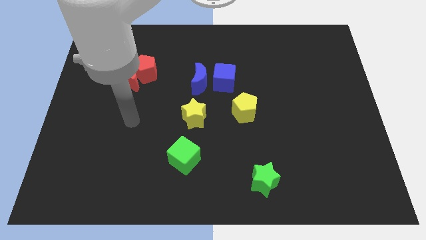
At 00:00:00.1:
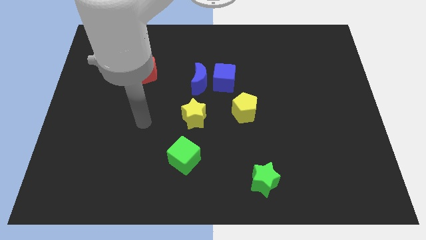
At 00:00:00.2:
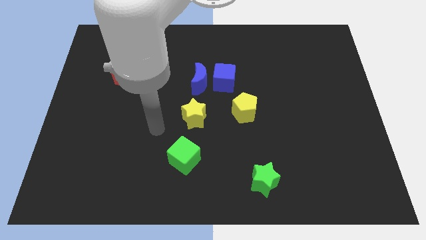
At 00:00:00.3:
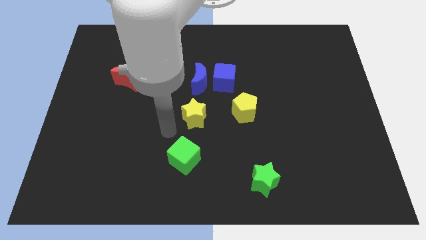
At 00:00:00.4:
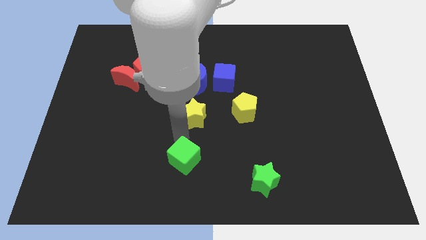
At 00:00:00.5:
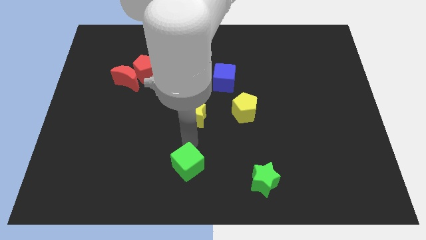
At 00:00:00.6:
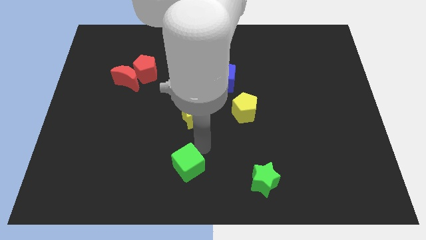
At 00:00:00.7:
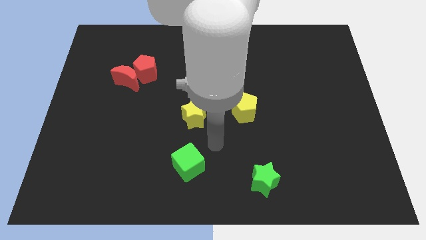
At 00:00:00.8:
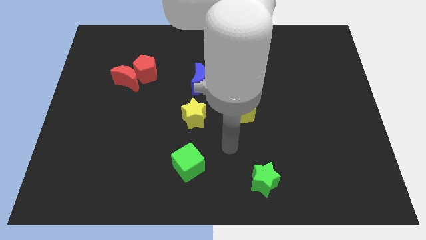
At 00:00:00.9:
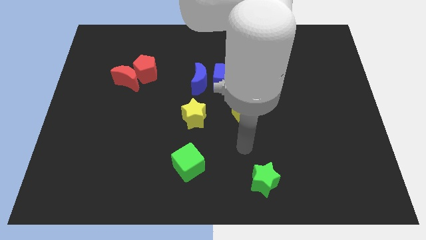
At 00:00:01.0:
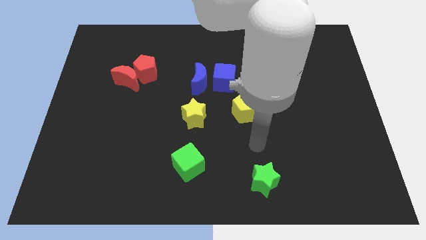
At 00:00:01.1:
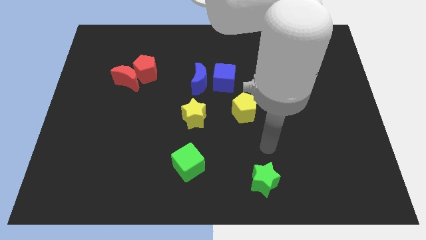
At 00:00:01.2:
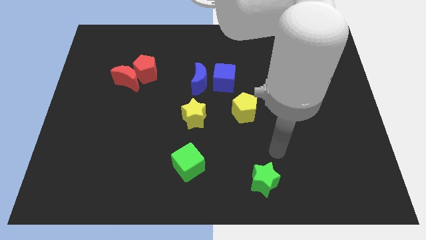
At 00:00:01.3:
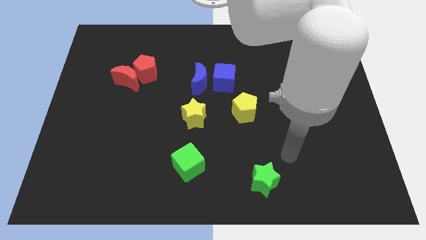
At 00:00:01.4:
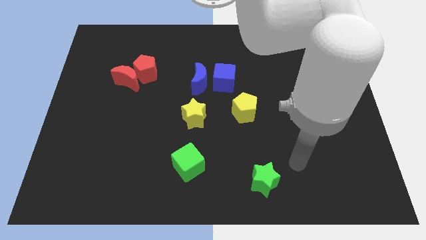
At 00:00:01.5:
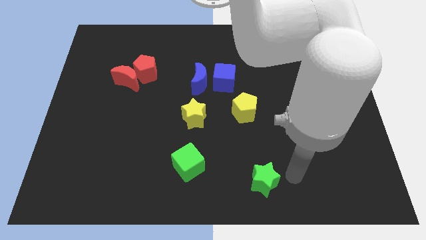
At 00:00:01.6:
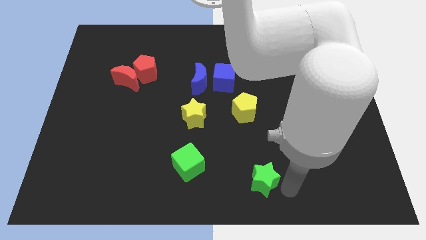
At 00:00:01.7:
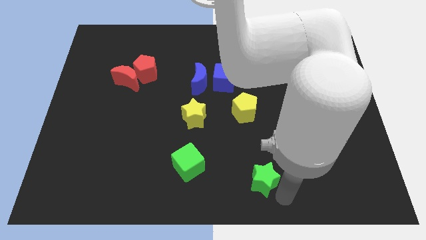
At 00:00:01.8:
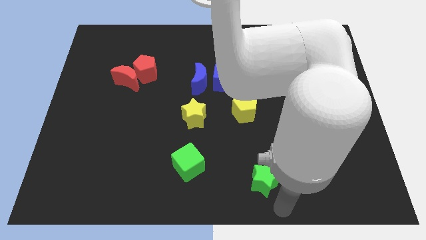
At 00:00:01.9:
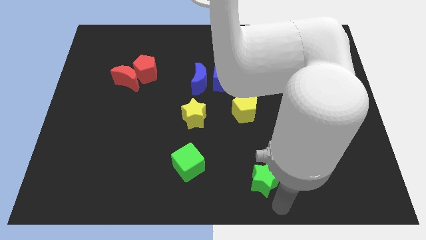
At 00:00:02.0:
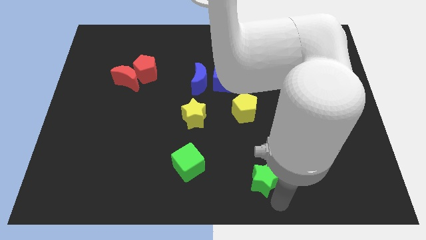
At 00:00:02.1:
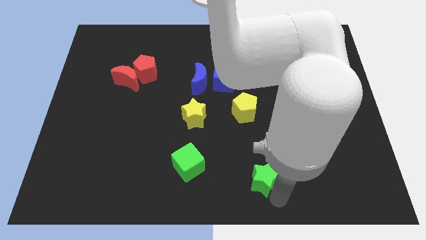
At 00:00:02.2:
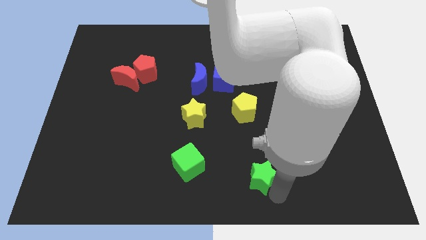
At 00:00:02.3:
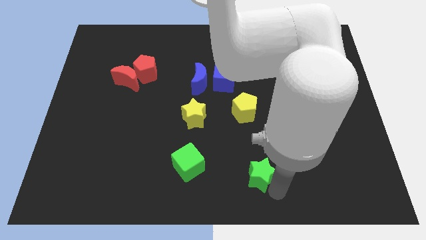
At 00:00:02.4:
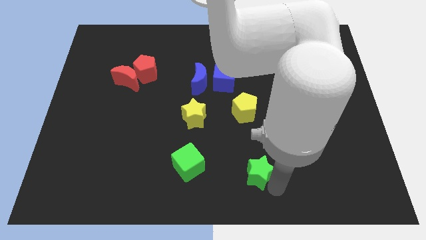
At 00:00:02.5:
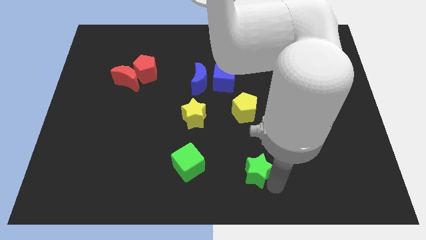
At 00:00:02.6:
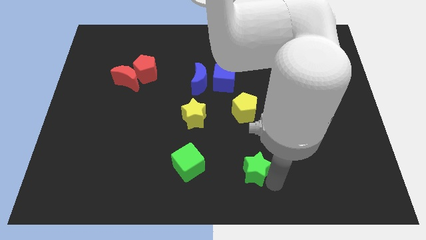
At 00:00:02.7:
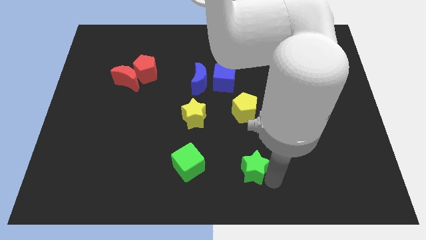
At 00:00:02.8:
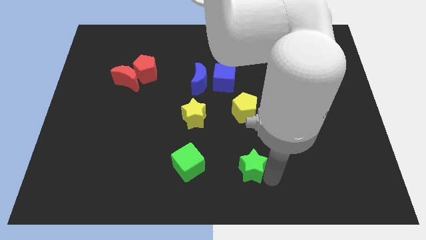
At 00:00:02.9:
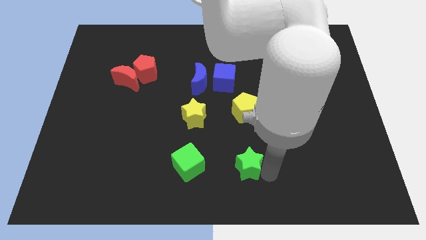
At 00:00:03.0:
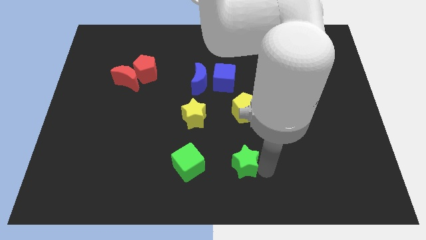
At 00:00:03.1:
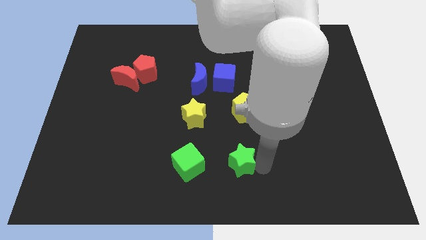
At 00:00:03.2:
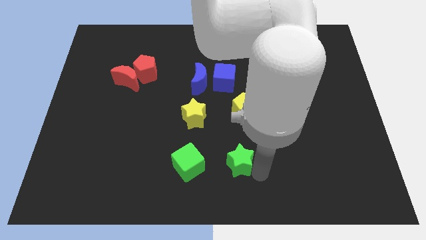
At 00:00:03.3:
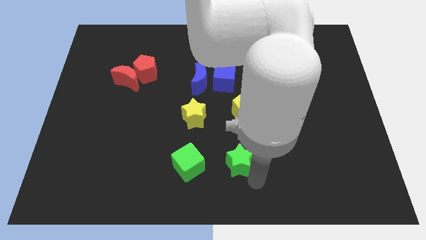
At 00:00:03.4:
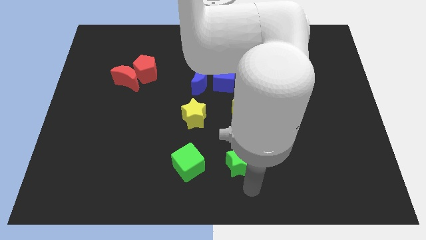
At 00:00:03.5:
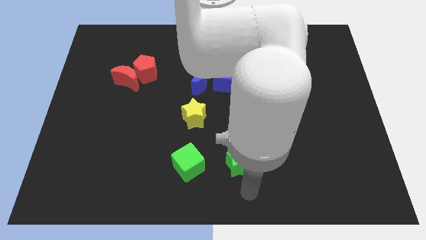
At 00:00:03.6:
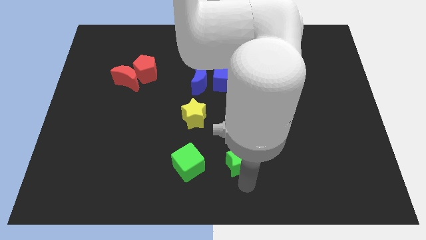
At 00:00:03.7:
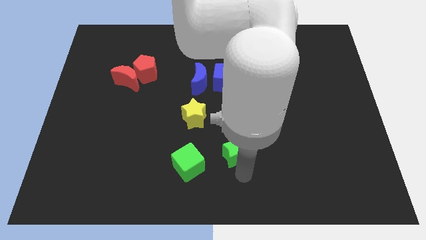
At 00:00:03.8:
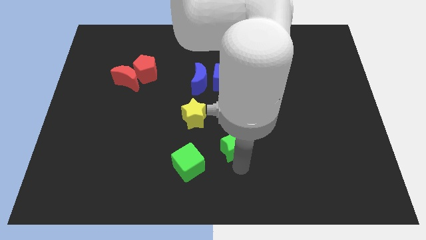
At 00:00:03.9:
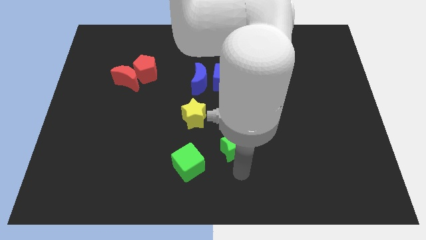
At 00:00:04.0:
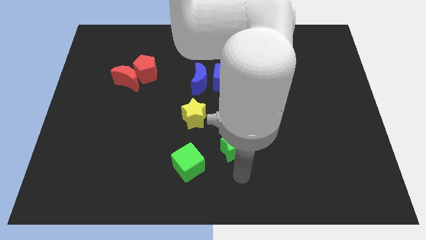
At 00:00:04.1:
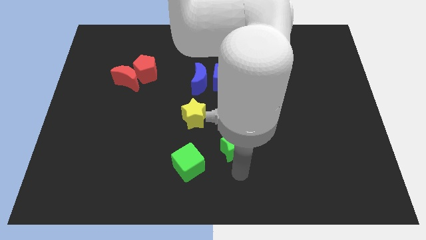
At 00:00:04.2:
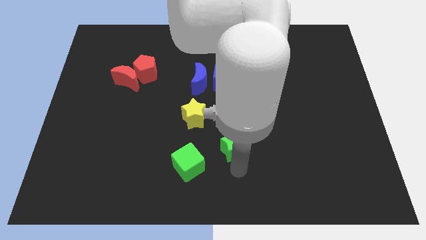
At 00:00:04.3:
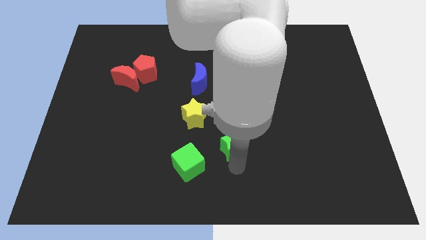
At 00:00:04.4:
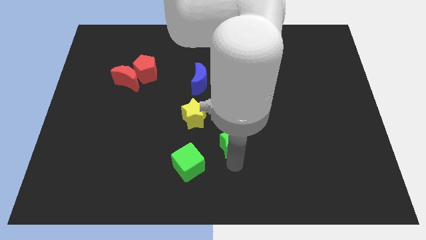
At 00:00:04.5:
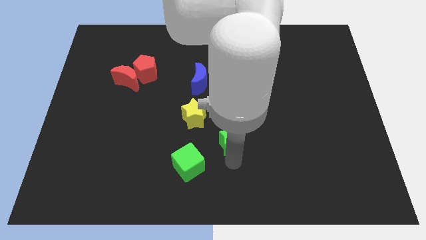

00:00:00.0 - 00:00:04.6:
move the green star to the middle of the board

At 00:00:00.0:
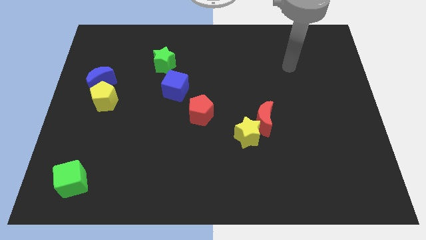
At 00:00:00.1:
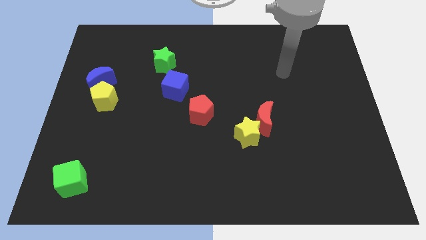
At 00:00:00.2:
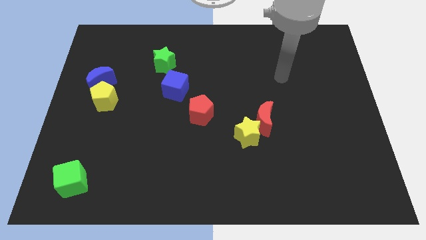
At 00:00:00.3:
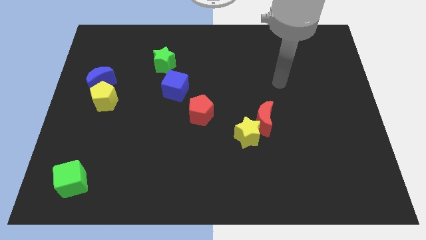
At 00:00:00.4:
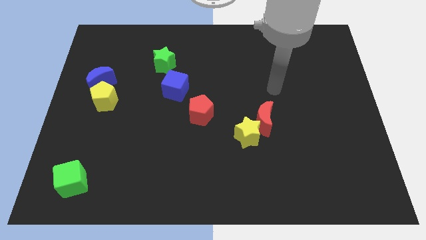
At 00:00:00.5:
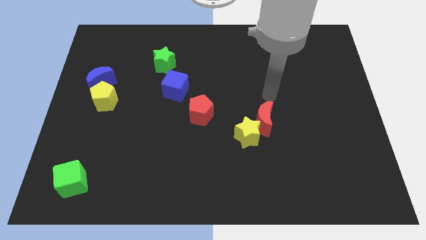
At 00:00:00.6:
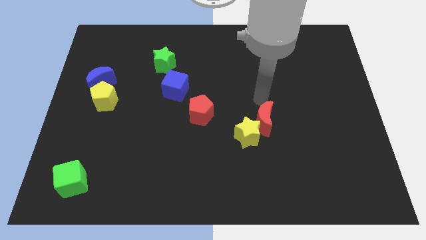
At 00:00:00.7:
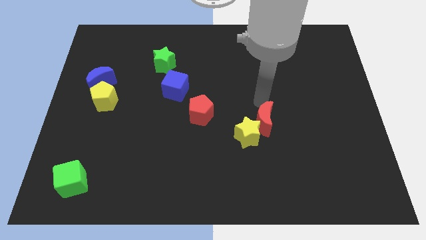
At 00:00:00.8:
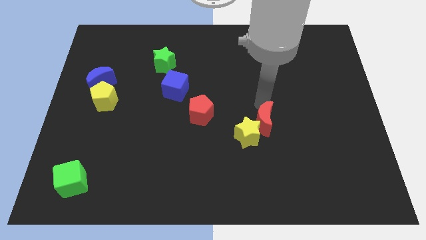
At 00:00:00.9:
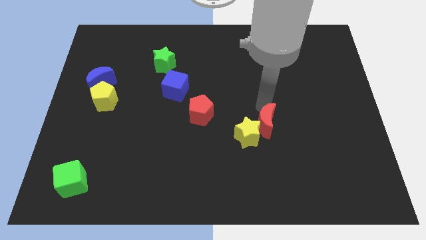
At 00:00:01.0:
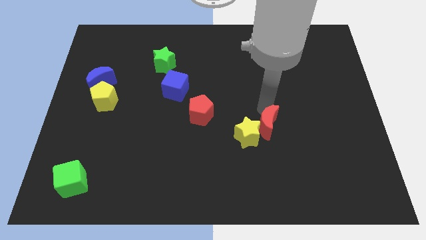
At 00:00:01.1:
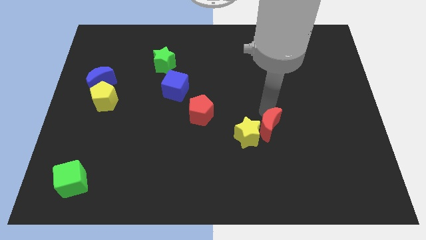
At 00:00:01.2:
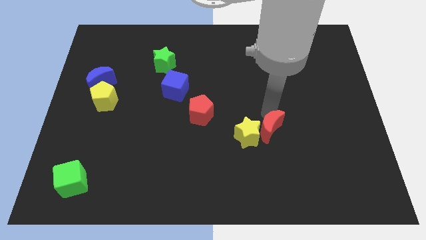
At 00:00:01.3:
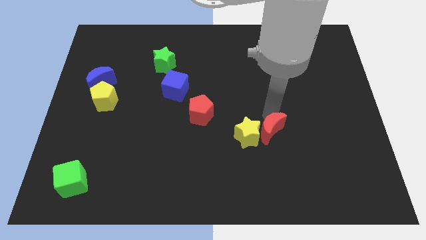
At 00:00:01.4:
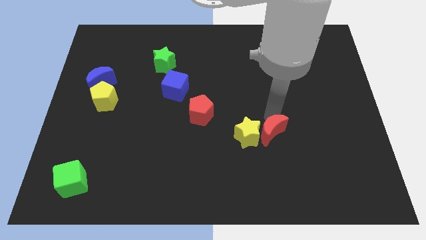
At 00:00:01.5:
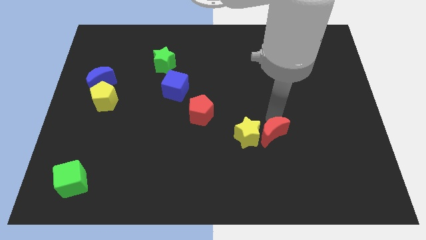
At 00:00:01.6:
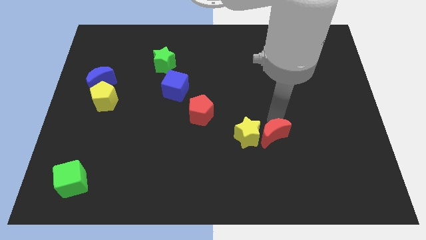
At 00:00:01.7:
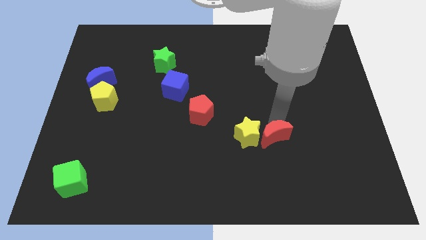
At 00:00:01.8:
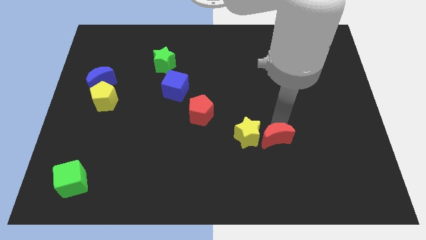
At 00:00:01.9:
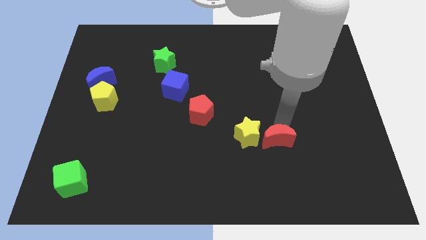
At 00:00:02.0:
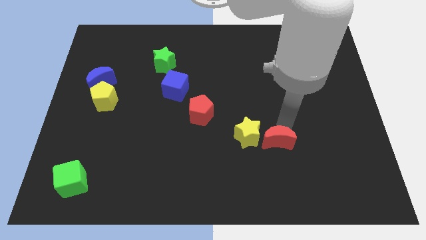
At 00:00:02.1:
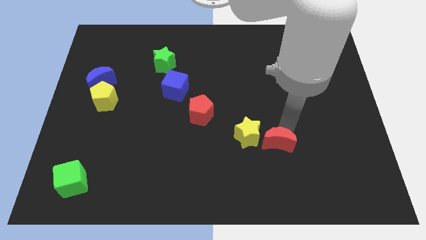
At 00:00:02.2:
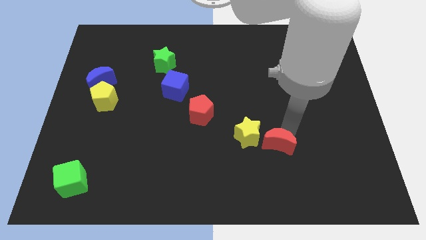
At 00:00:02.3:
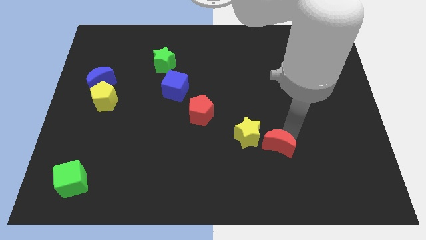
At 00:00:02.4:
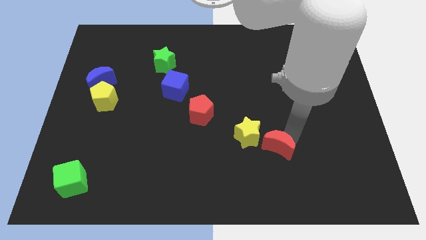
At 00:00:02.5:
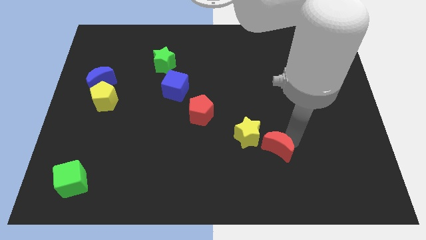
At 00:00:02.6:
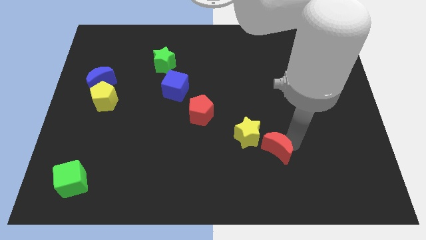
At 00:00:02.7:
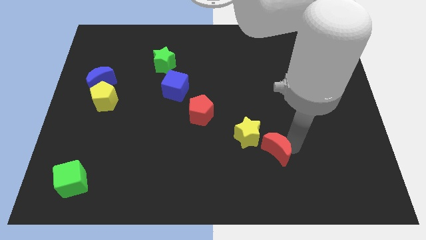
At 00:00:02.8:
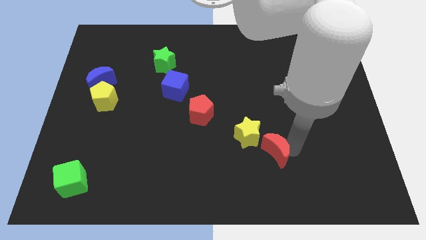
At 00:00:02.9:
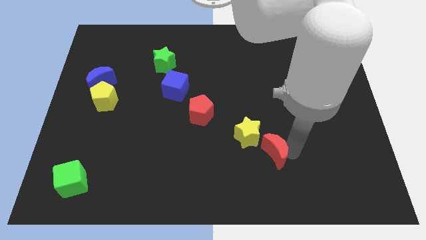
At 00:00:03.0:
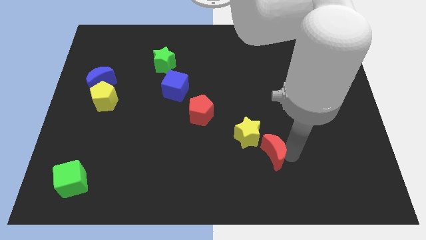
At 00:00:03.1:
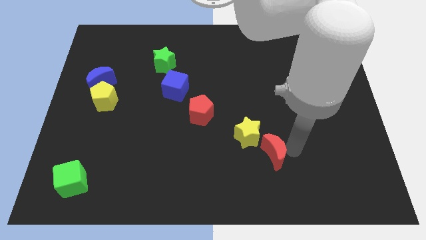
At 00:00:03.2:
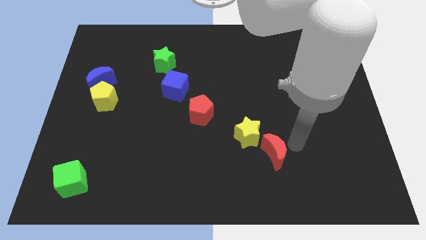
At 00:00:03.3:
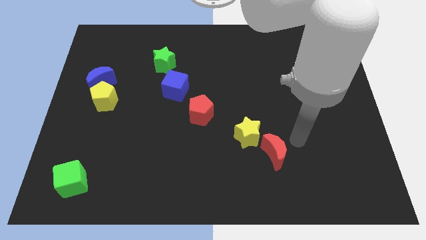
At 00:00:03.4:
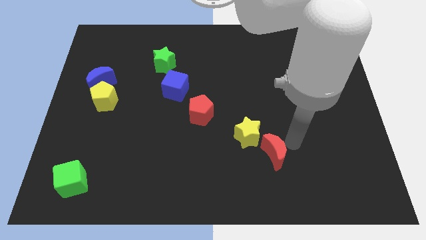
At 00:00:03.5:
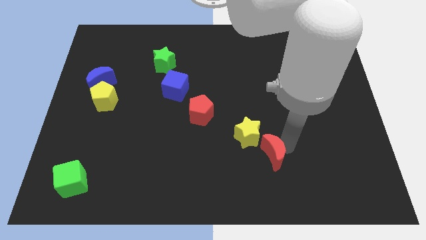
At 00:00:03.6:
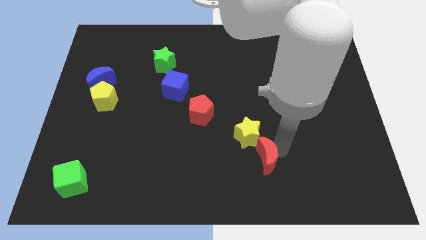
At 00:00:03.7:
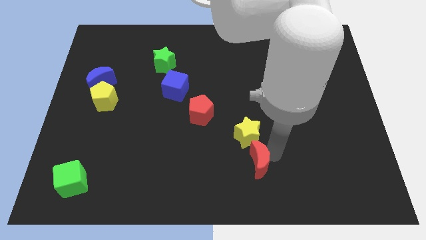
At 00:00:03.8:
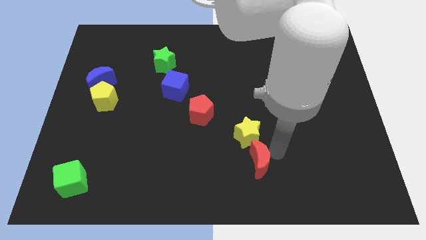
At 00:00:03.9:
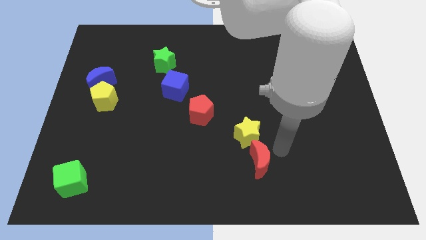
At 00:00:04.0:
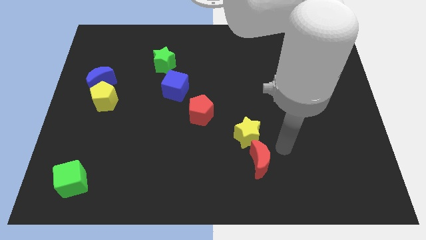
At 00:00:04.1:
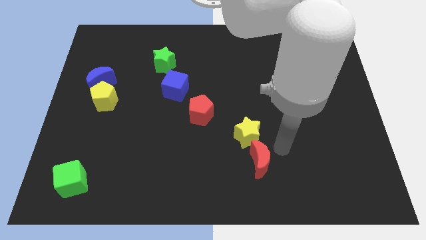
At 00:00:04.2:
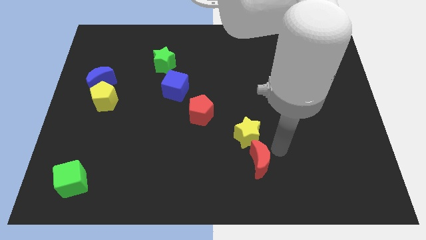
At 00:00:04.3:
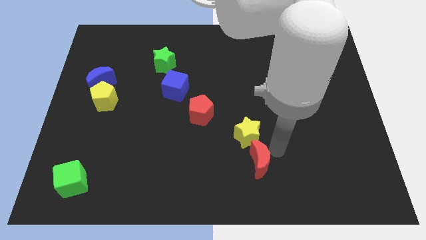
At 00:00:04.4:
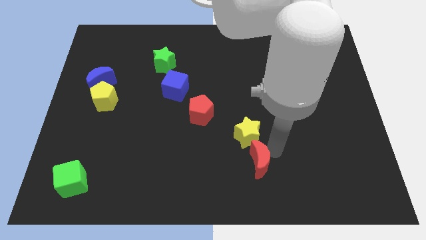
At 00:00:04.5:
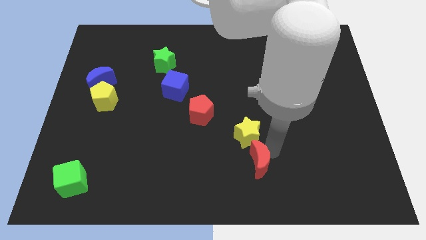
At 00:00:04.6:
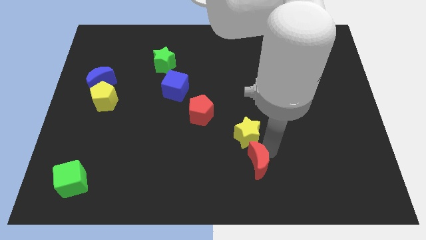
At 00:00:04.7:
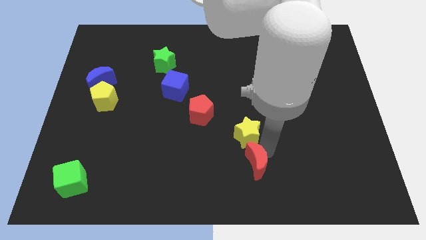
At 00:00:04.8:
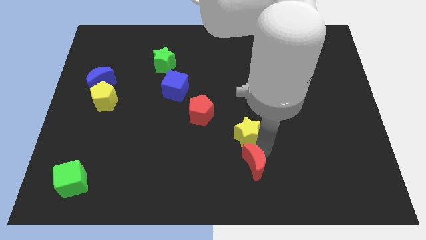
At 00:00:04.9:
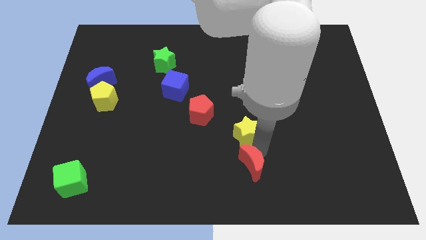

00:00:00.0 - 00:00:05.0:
push the red moon to the bottom side
